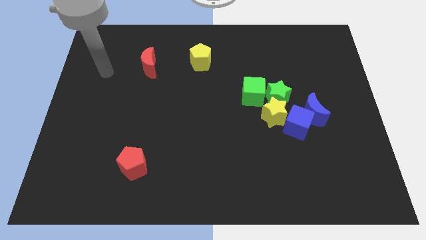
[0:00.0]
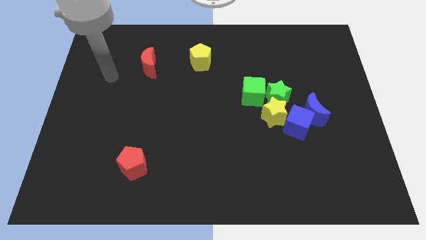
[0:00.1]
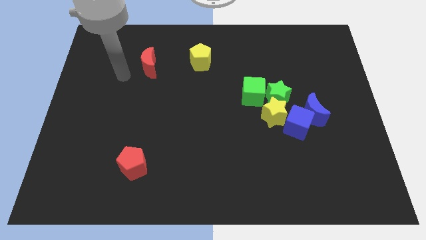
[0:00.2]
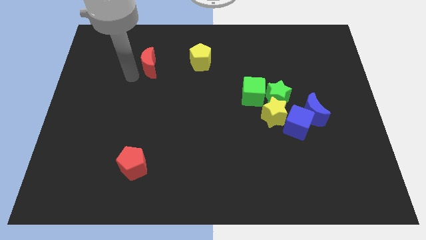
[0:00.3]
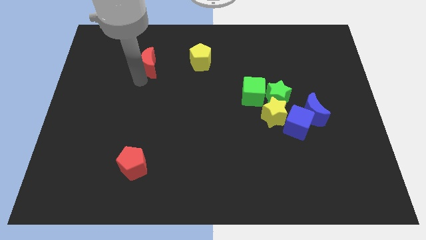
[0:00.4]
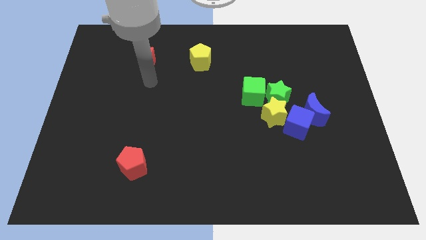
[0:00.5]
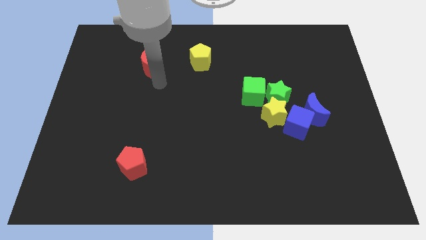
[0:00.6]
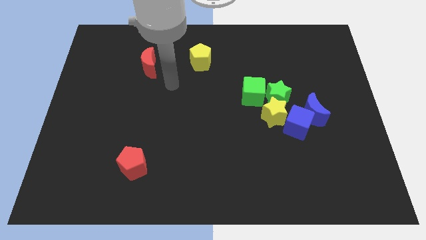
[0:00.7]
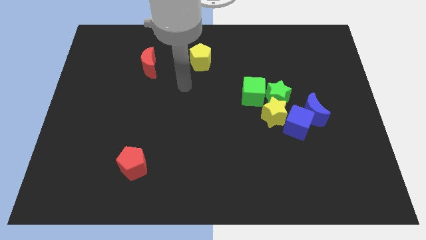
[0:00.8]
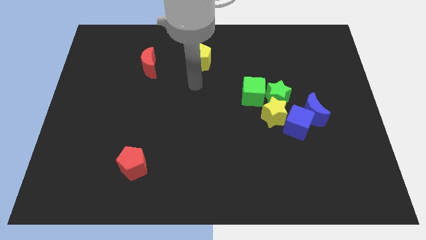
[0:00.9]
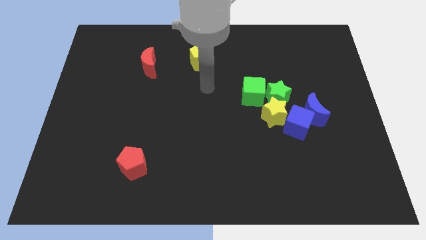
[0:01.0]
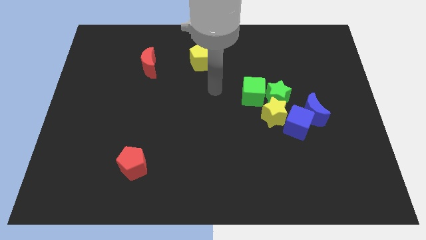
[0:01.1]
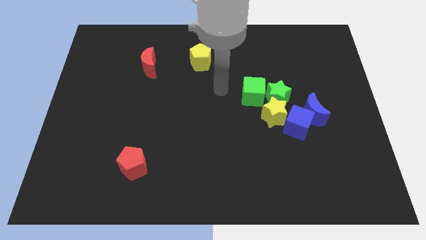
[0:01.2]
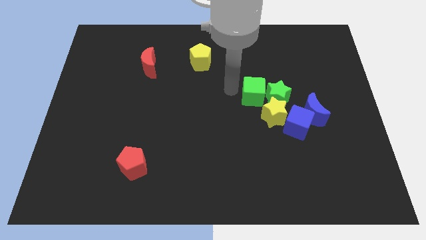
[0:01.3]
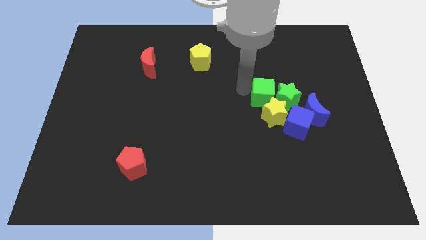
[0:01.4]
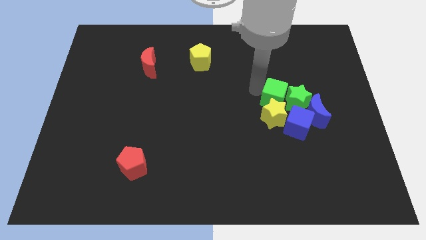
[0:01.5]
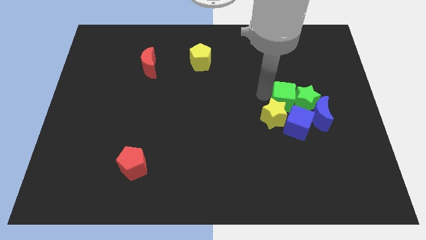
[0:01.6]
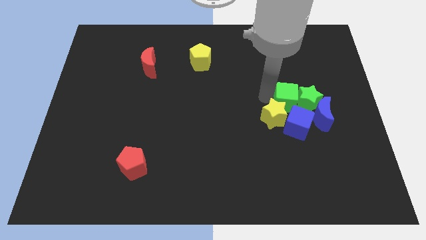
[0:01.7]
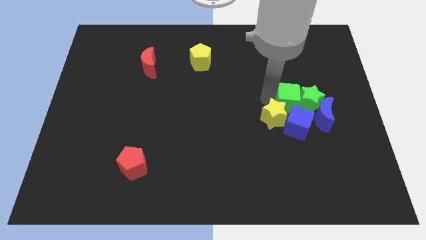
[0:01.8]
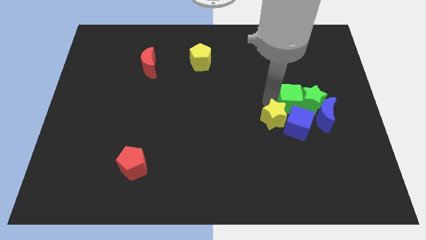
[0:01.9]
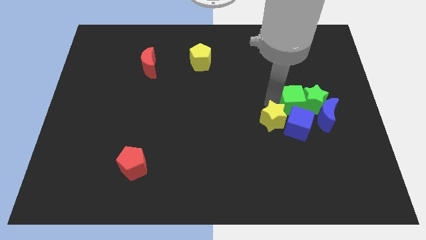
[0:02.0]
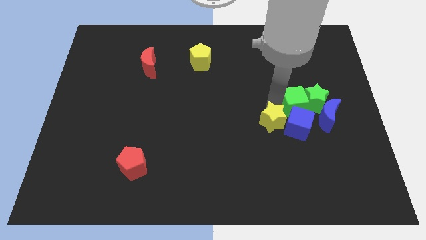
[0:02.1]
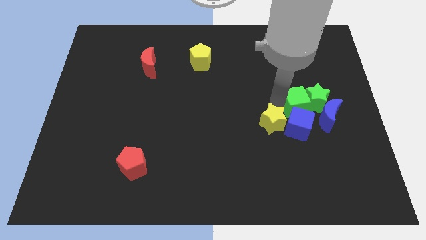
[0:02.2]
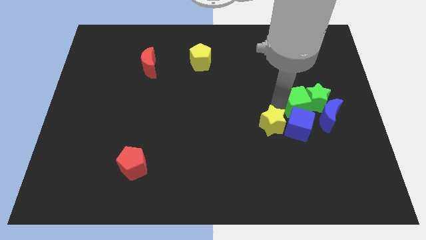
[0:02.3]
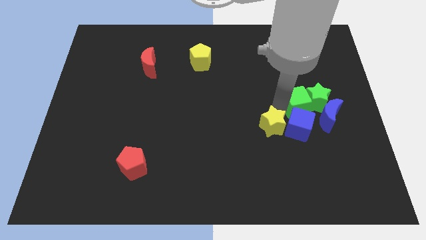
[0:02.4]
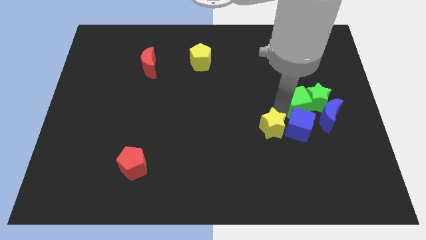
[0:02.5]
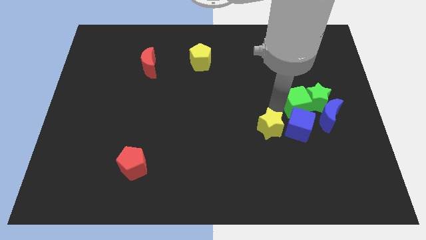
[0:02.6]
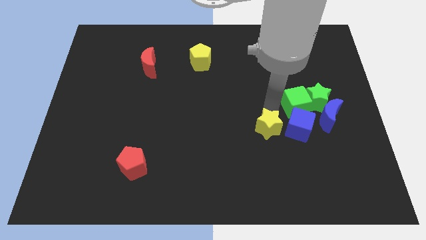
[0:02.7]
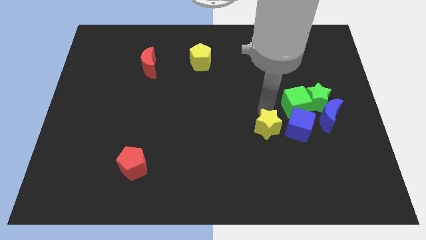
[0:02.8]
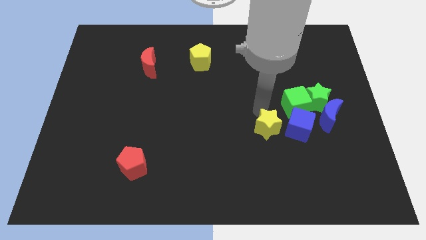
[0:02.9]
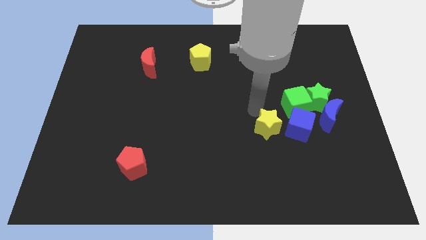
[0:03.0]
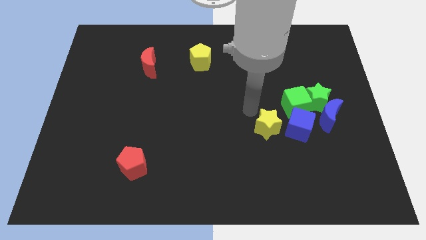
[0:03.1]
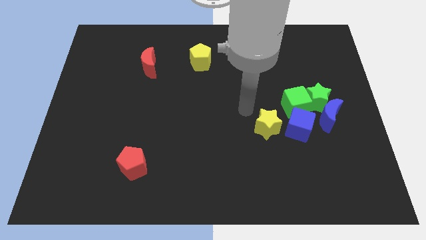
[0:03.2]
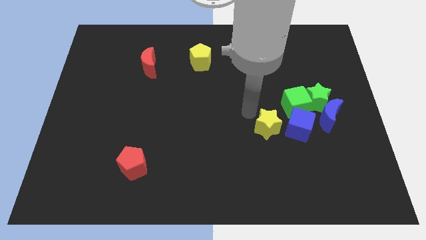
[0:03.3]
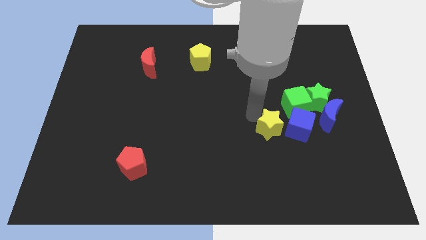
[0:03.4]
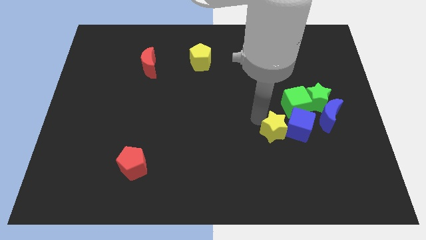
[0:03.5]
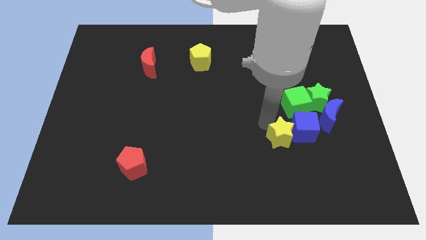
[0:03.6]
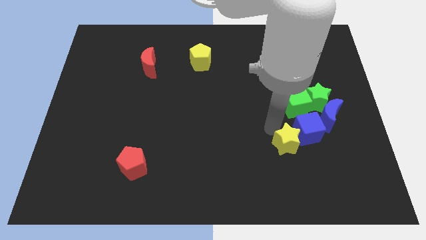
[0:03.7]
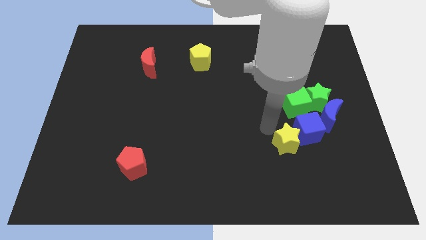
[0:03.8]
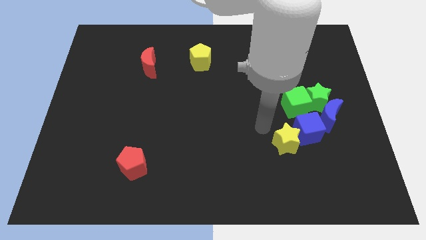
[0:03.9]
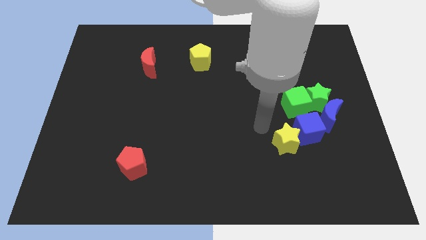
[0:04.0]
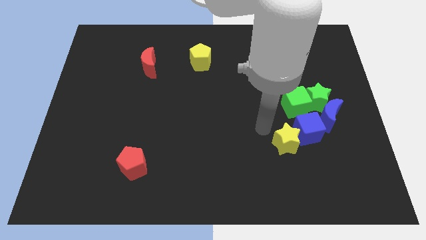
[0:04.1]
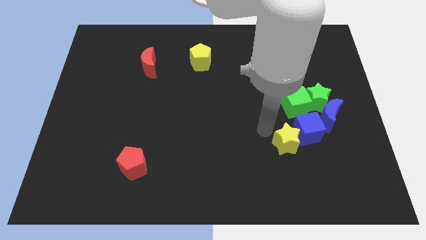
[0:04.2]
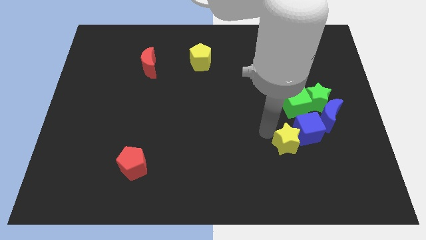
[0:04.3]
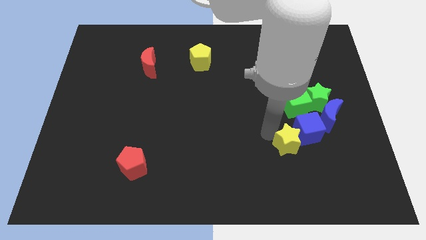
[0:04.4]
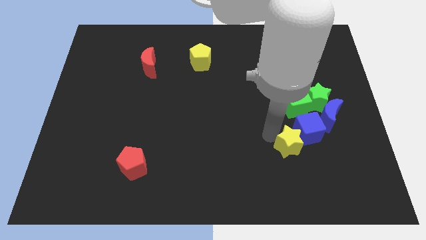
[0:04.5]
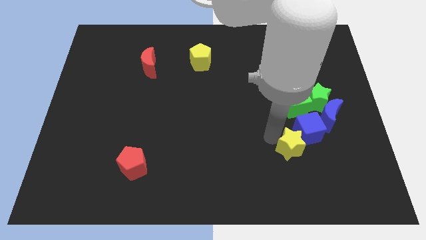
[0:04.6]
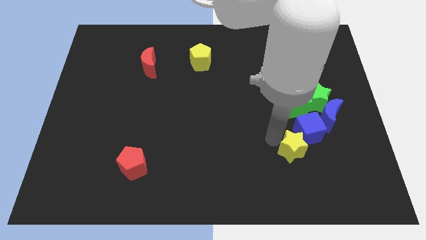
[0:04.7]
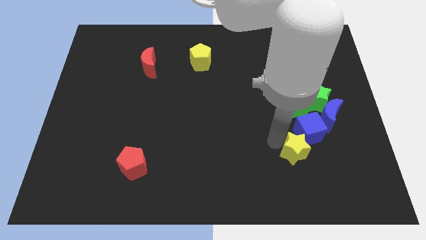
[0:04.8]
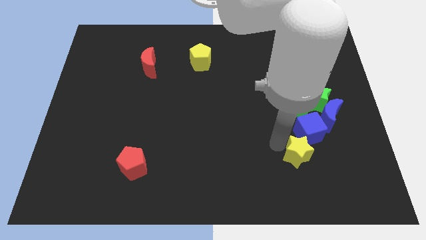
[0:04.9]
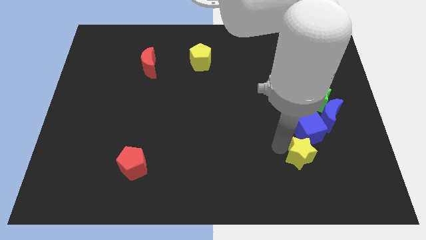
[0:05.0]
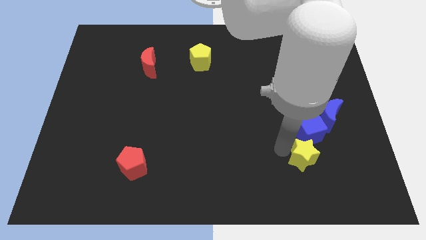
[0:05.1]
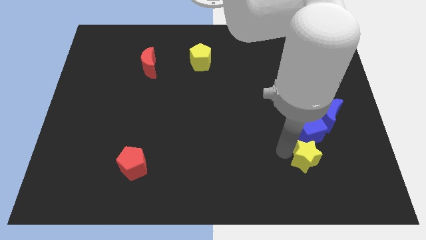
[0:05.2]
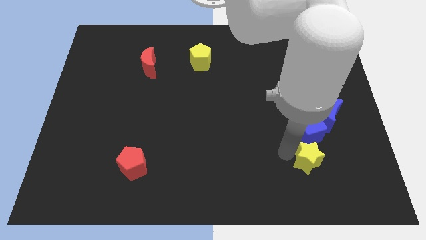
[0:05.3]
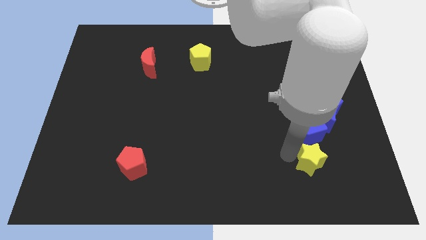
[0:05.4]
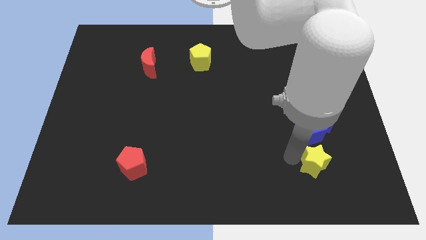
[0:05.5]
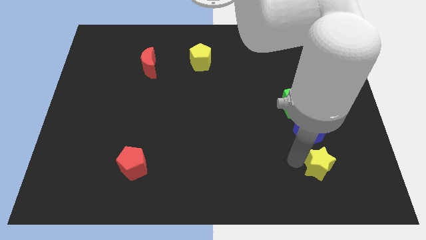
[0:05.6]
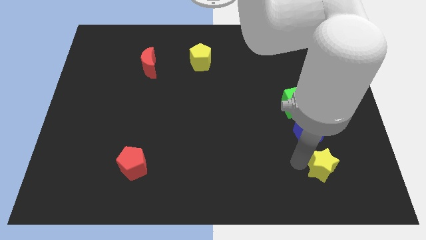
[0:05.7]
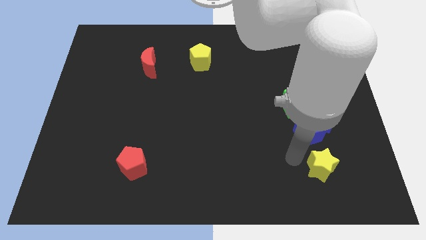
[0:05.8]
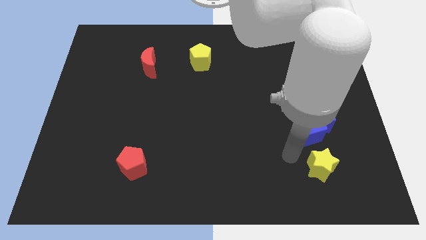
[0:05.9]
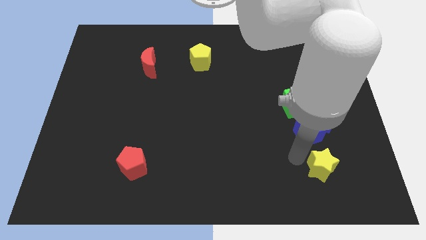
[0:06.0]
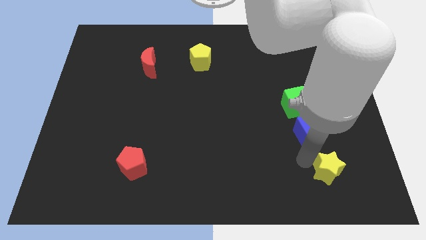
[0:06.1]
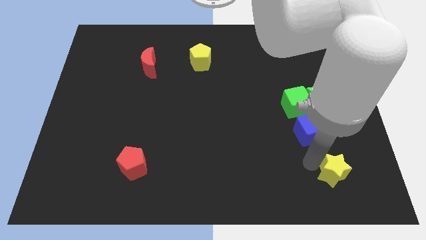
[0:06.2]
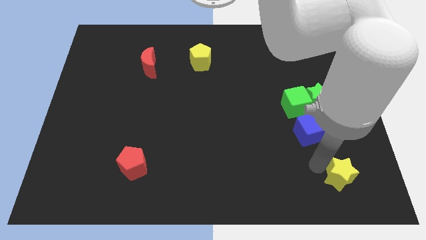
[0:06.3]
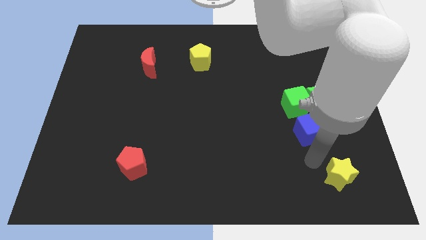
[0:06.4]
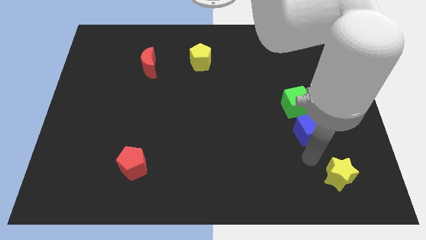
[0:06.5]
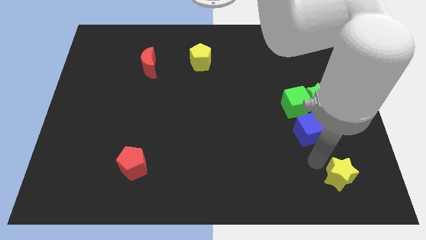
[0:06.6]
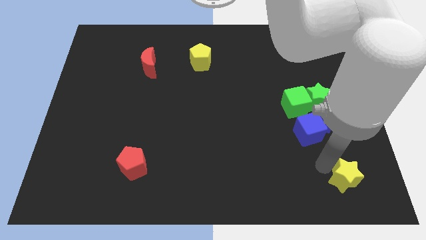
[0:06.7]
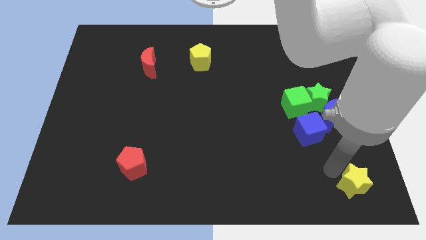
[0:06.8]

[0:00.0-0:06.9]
put the yellow star to the bottom right of the board
